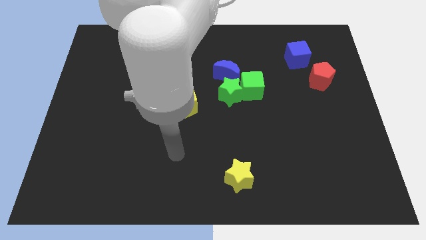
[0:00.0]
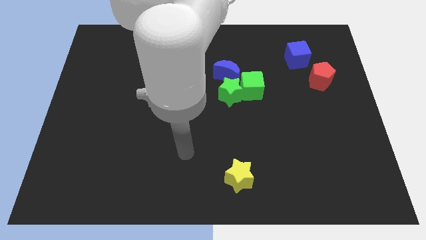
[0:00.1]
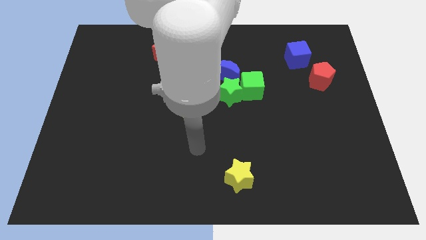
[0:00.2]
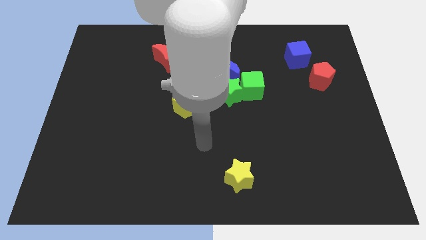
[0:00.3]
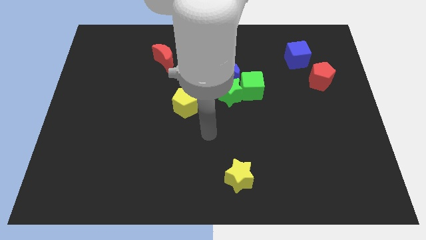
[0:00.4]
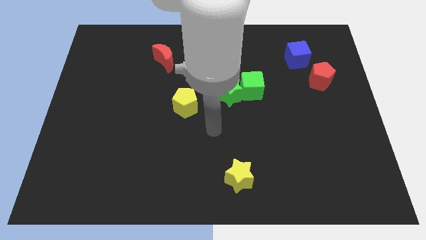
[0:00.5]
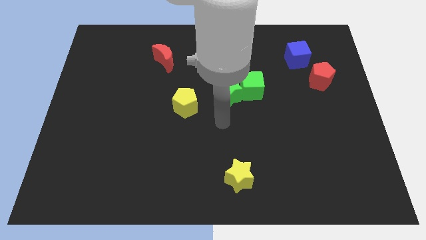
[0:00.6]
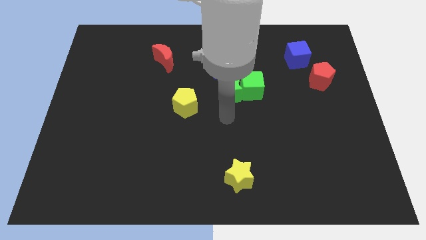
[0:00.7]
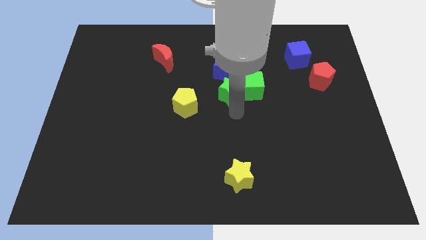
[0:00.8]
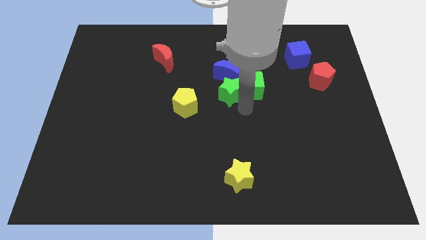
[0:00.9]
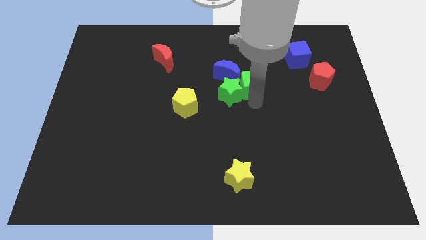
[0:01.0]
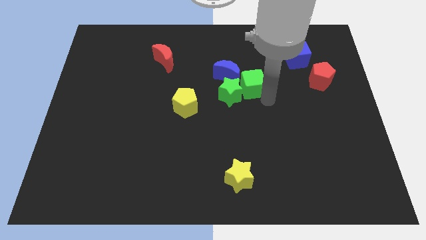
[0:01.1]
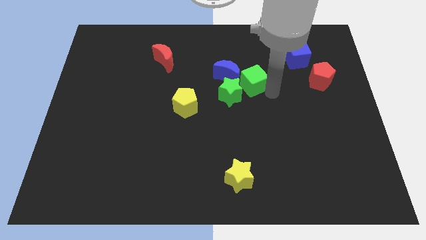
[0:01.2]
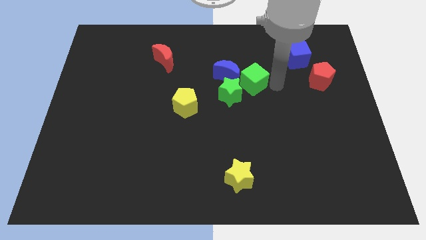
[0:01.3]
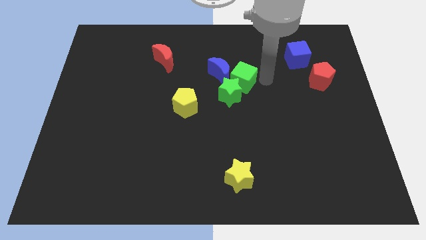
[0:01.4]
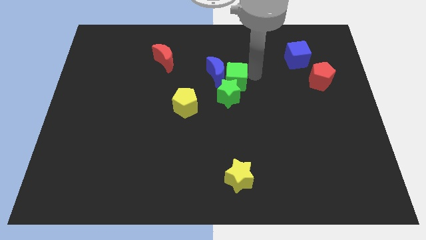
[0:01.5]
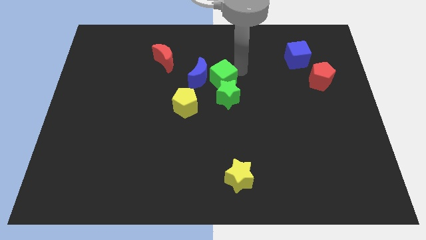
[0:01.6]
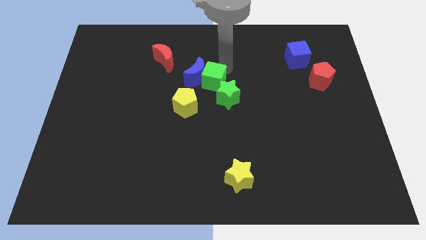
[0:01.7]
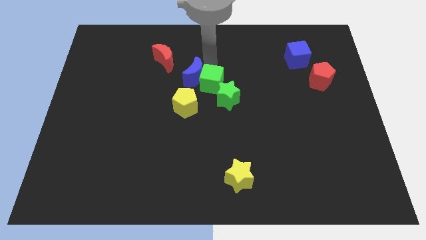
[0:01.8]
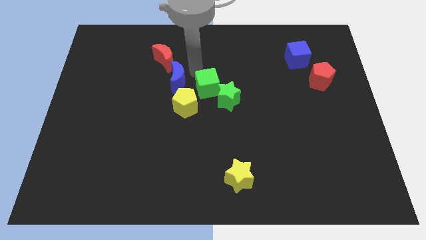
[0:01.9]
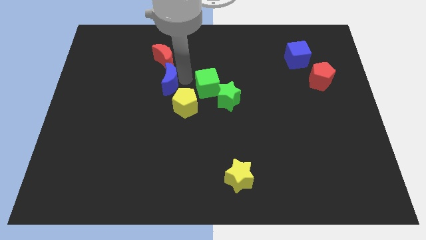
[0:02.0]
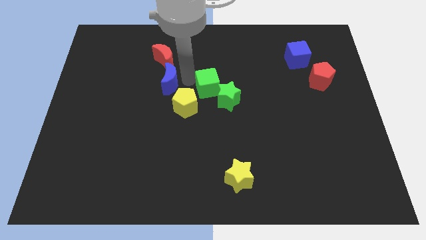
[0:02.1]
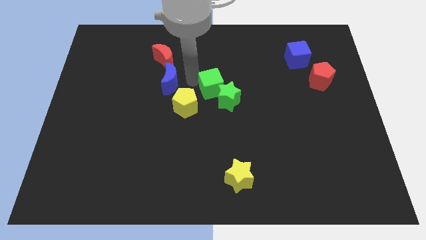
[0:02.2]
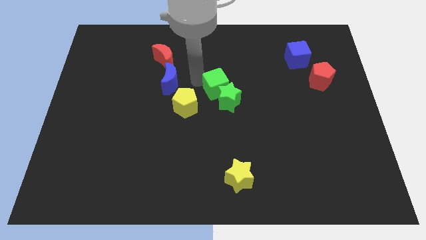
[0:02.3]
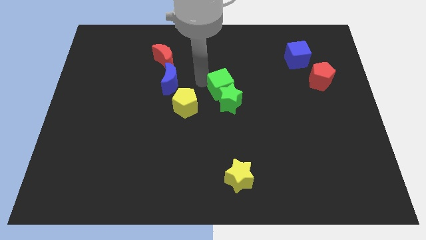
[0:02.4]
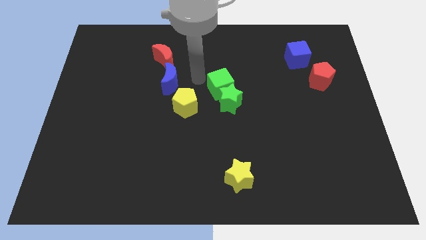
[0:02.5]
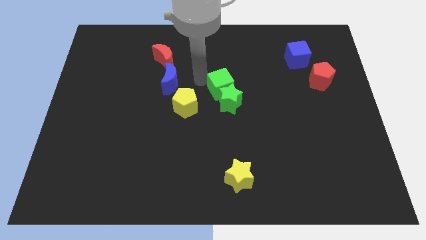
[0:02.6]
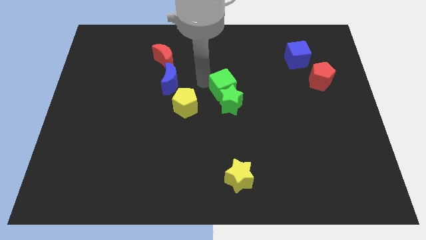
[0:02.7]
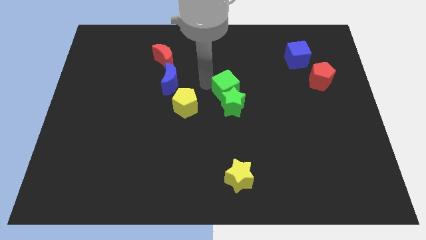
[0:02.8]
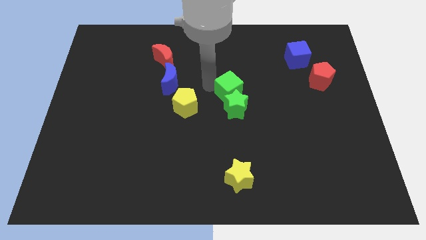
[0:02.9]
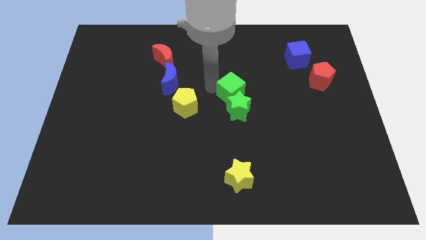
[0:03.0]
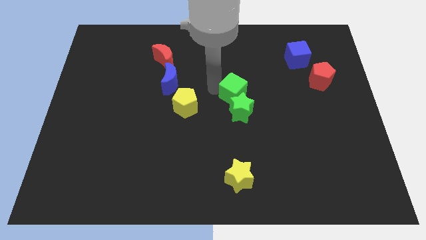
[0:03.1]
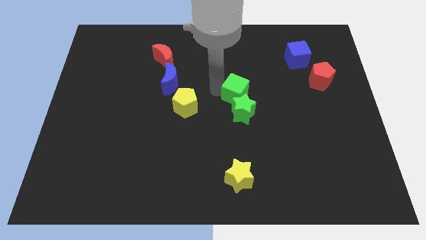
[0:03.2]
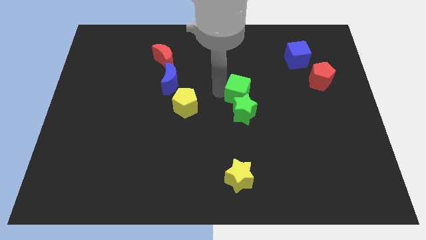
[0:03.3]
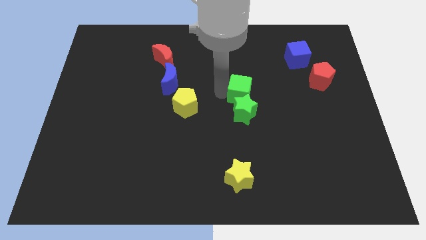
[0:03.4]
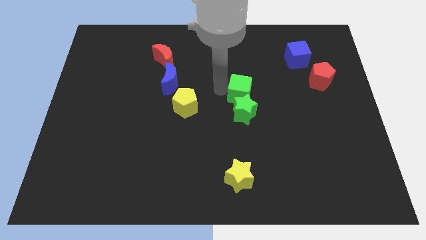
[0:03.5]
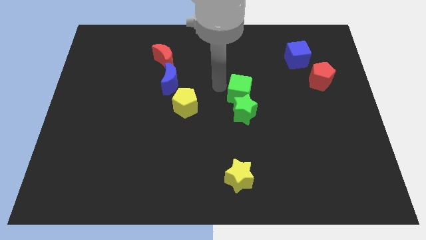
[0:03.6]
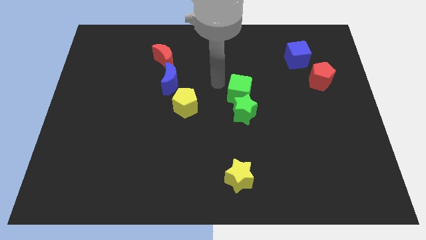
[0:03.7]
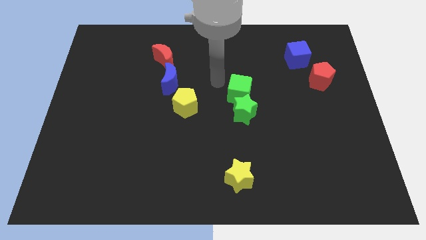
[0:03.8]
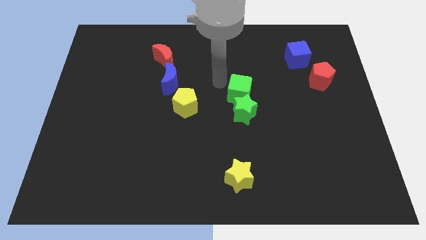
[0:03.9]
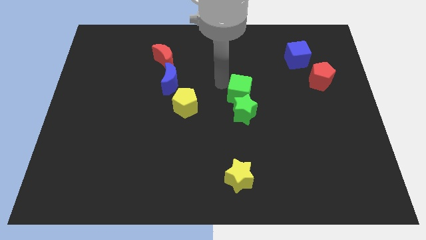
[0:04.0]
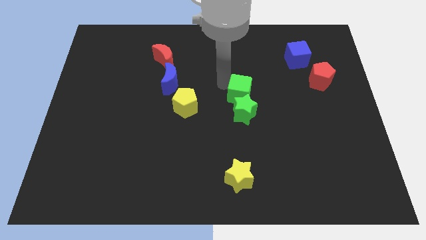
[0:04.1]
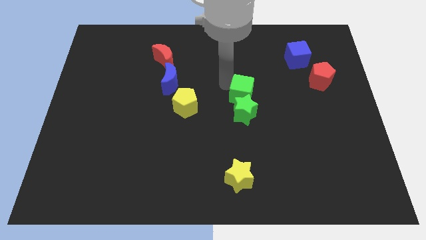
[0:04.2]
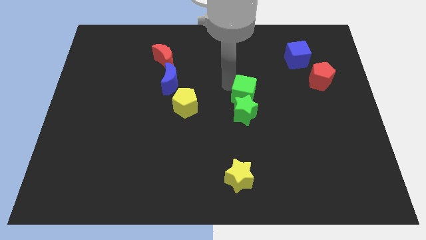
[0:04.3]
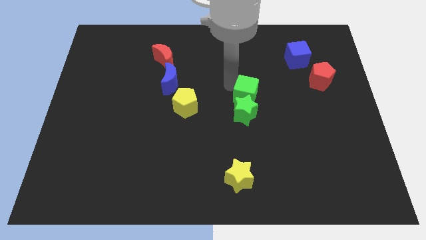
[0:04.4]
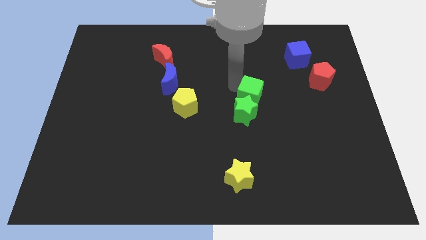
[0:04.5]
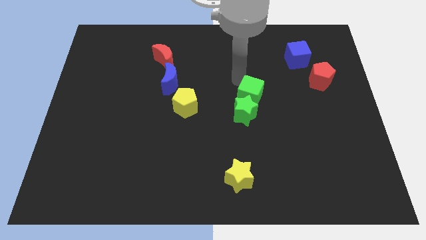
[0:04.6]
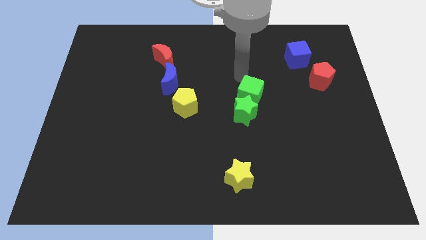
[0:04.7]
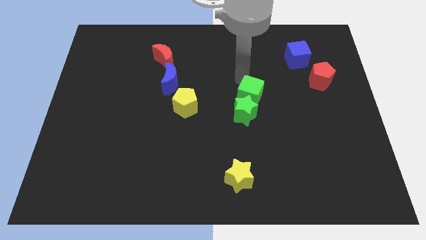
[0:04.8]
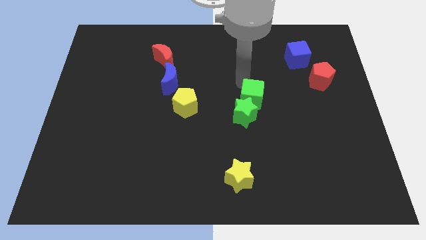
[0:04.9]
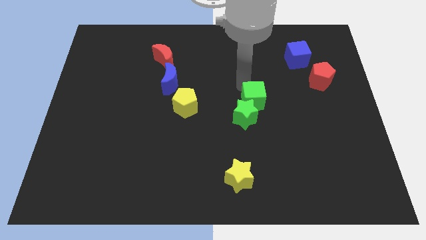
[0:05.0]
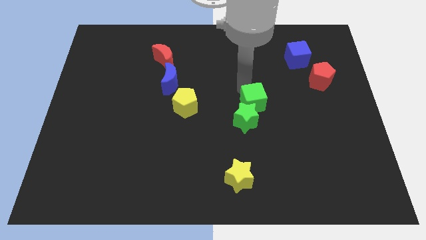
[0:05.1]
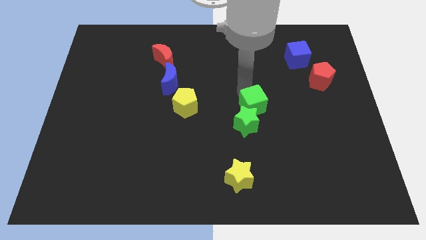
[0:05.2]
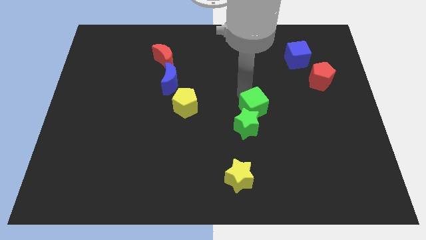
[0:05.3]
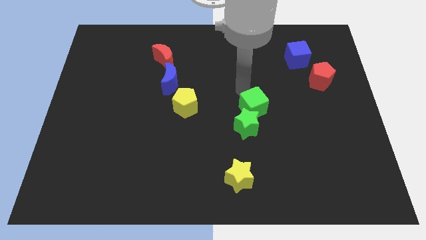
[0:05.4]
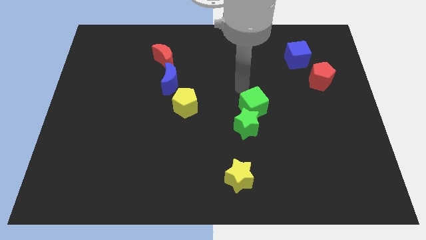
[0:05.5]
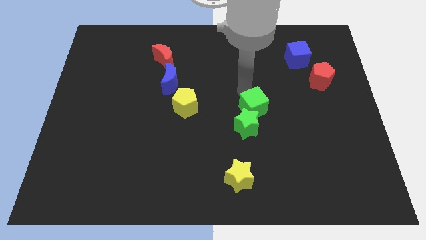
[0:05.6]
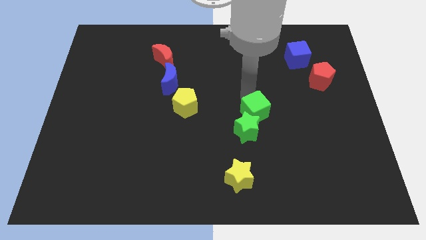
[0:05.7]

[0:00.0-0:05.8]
push the green cube downwards slightly

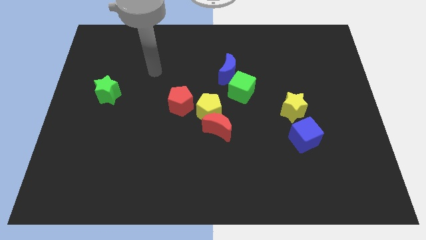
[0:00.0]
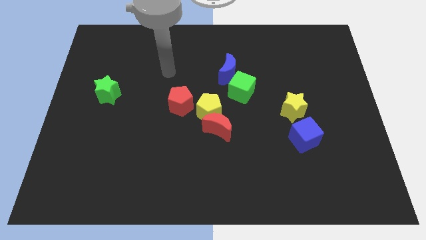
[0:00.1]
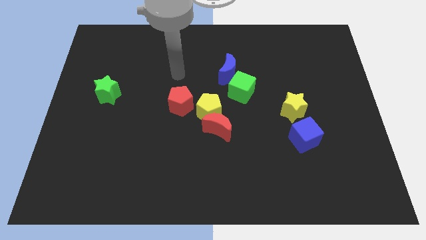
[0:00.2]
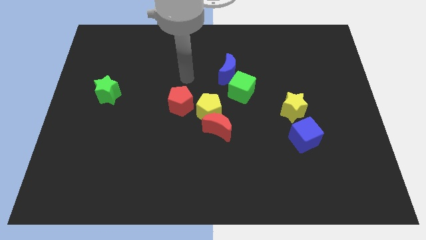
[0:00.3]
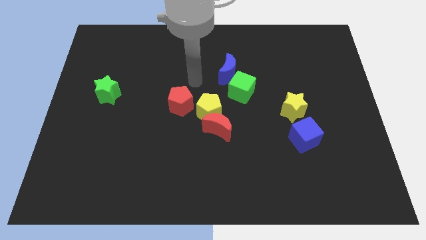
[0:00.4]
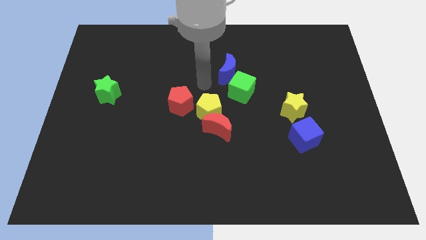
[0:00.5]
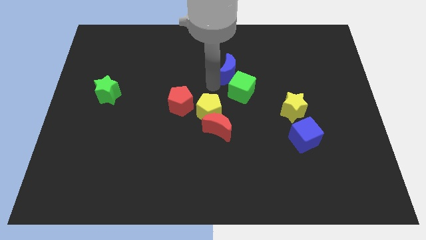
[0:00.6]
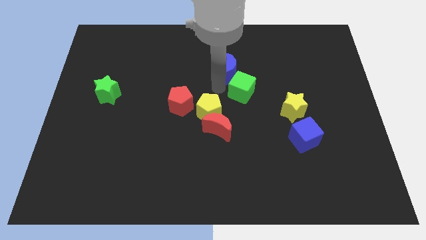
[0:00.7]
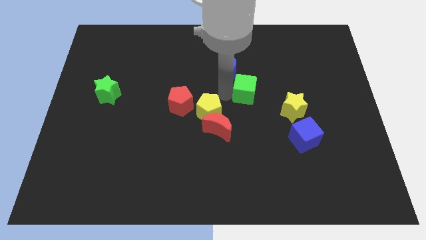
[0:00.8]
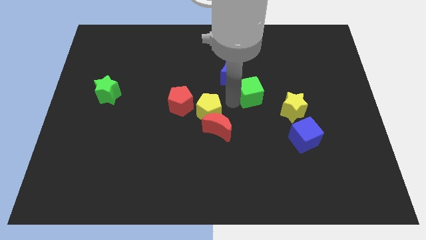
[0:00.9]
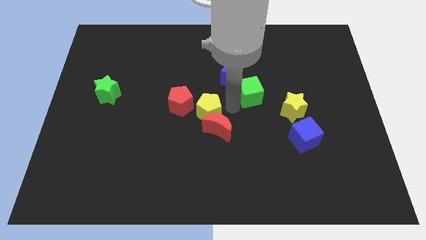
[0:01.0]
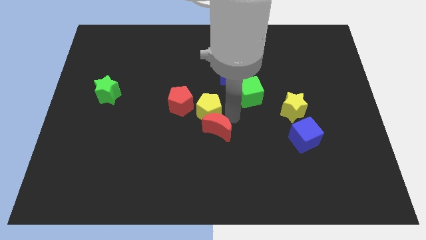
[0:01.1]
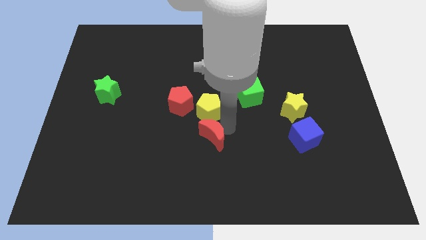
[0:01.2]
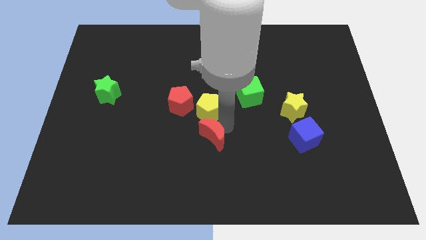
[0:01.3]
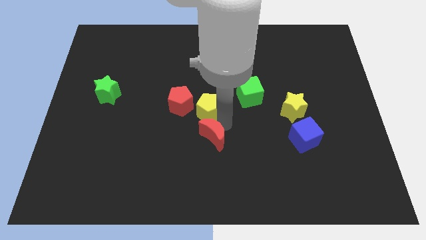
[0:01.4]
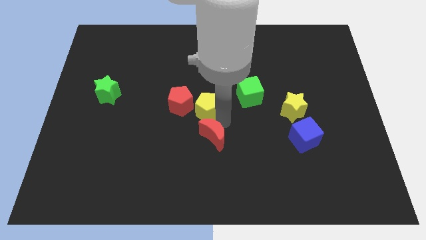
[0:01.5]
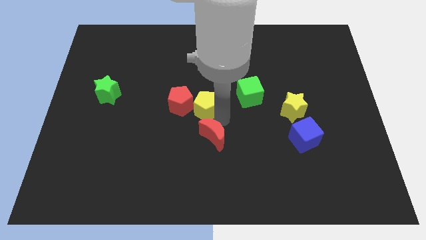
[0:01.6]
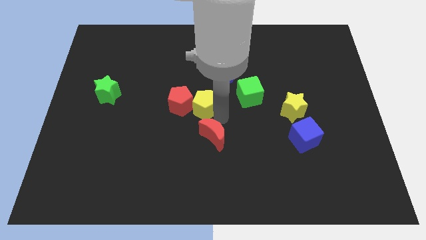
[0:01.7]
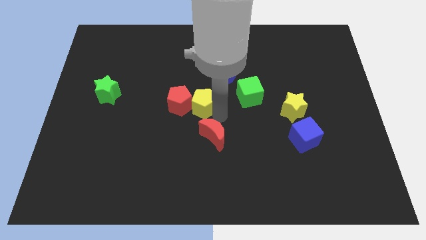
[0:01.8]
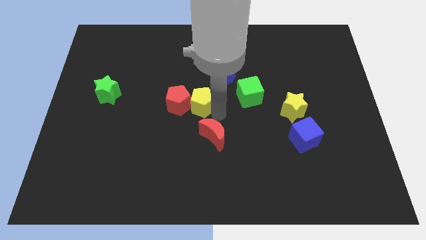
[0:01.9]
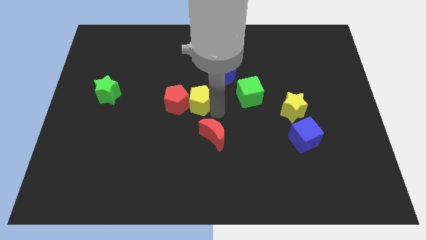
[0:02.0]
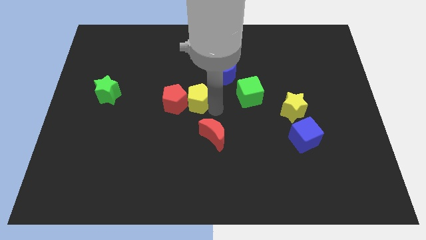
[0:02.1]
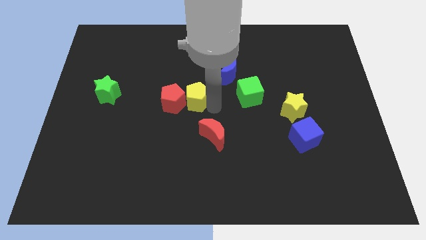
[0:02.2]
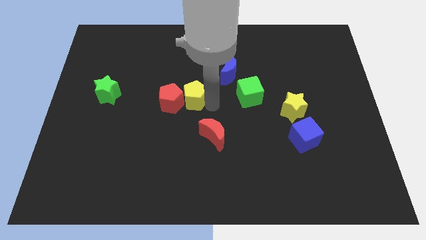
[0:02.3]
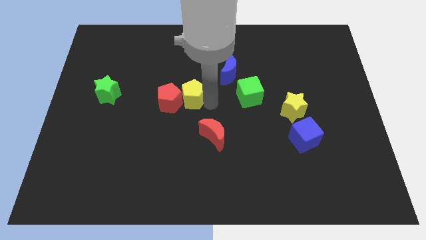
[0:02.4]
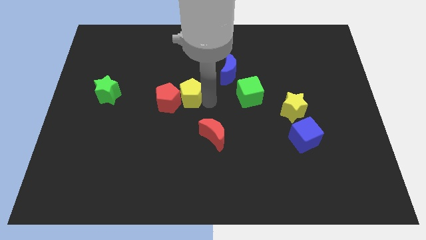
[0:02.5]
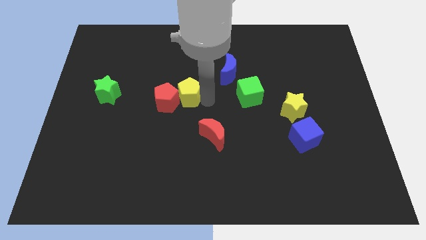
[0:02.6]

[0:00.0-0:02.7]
slide the yellow pentagon diagonally up and left a little bit
